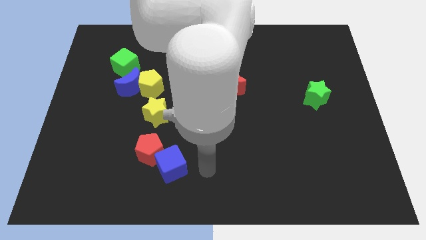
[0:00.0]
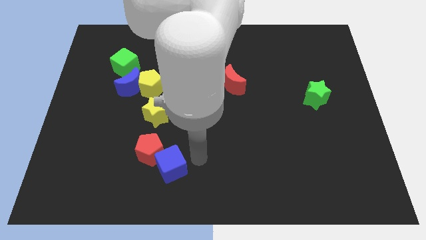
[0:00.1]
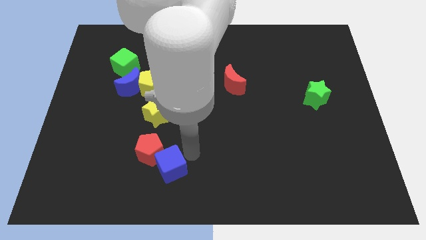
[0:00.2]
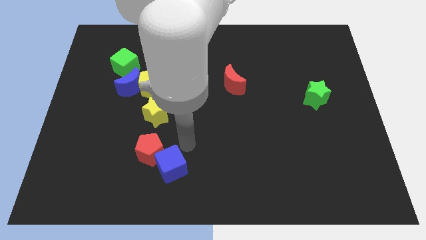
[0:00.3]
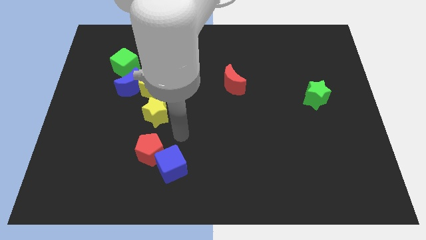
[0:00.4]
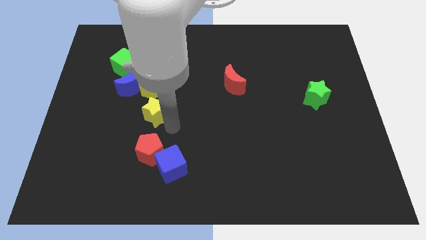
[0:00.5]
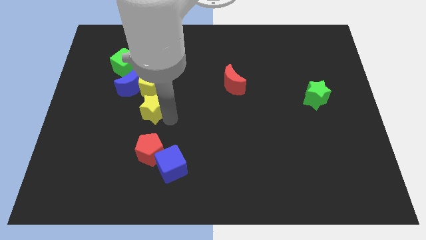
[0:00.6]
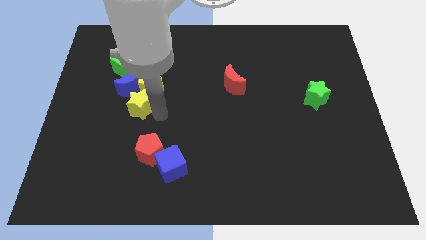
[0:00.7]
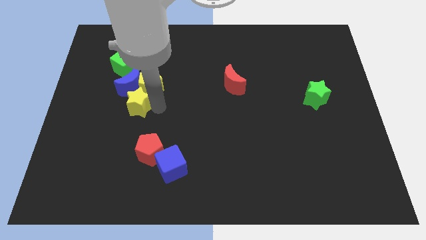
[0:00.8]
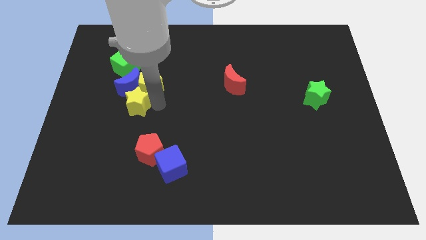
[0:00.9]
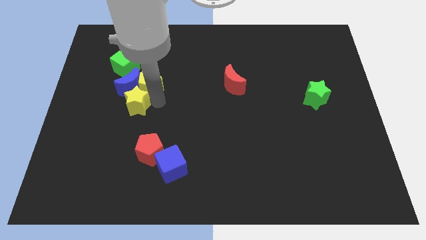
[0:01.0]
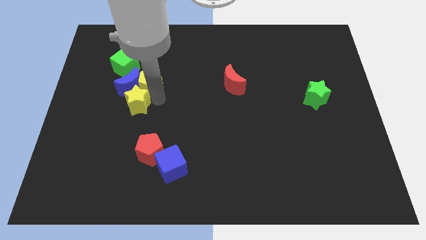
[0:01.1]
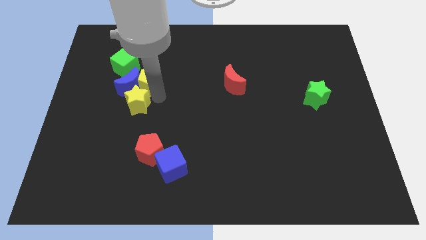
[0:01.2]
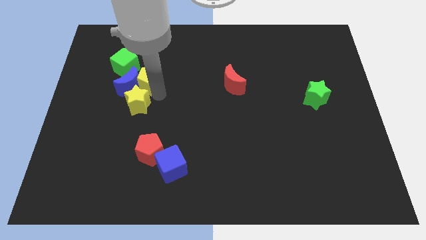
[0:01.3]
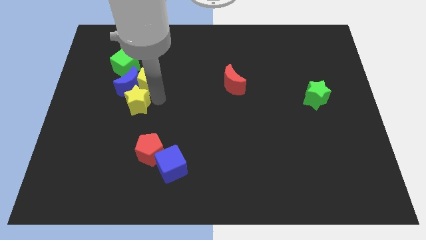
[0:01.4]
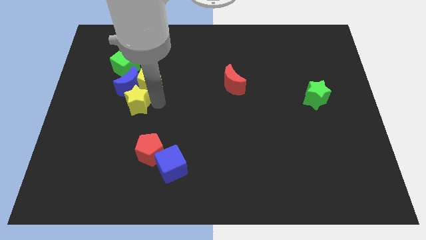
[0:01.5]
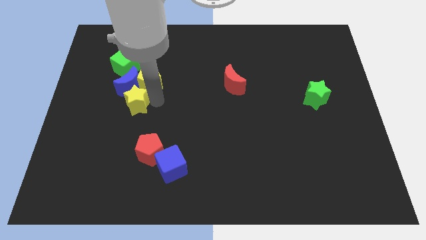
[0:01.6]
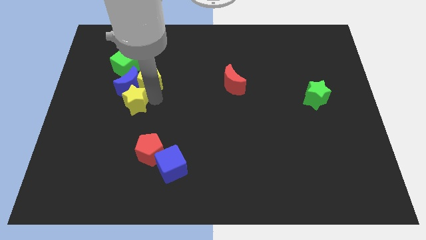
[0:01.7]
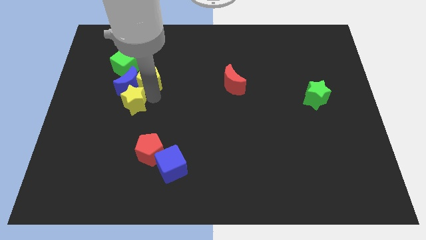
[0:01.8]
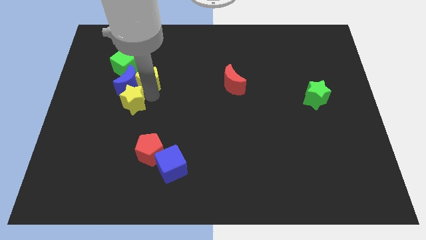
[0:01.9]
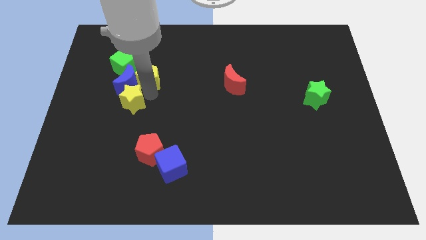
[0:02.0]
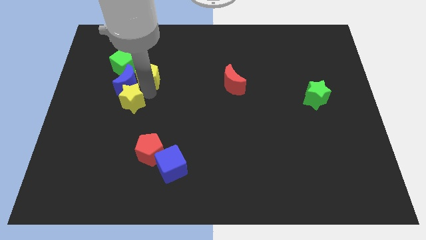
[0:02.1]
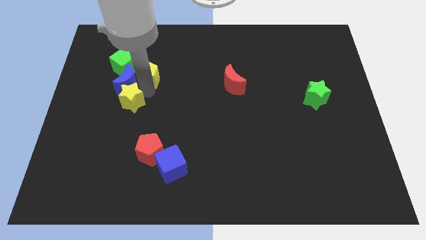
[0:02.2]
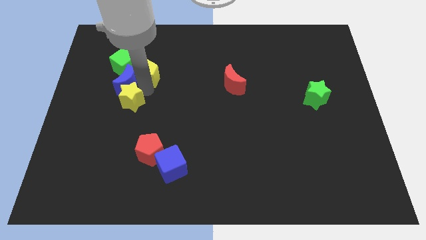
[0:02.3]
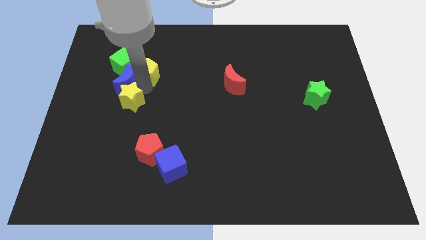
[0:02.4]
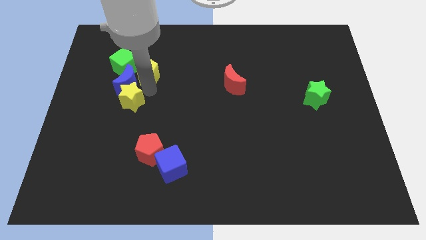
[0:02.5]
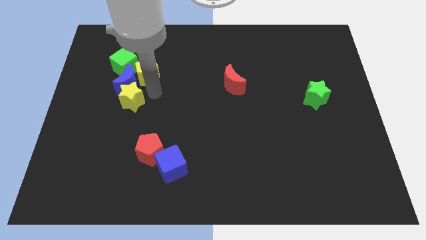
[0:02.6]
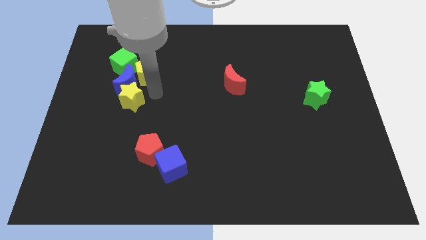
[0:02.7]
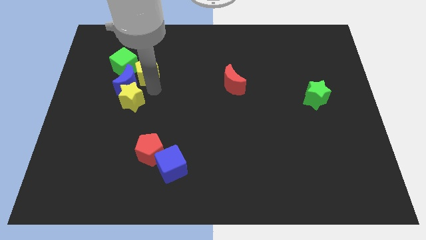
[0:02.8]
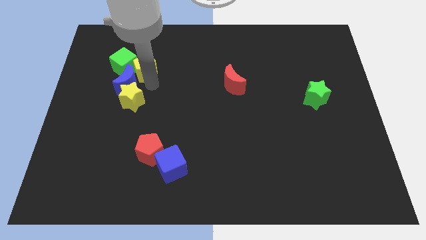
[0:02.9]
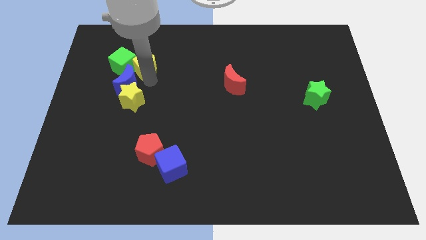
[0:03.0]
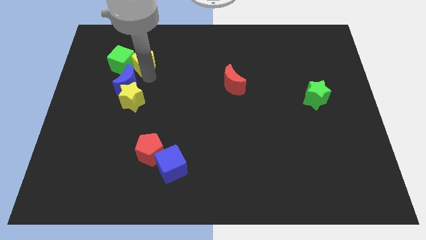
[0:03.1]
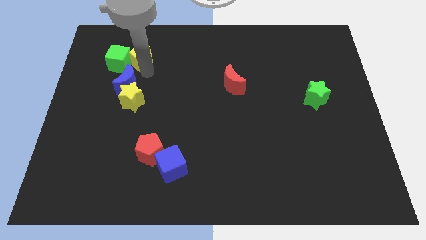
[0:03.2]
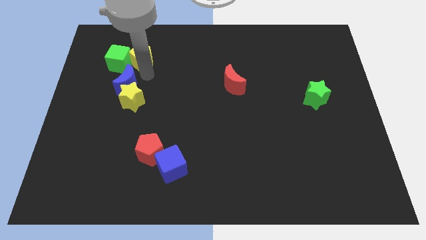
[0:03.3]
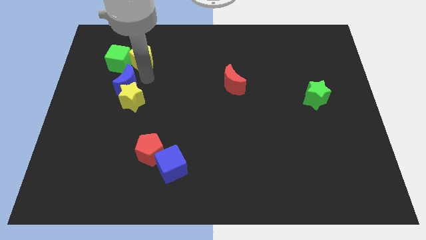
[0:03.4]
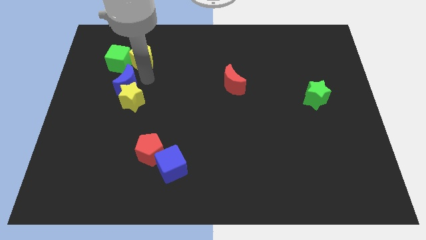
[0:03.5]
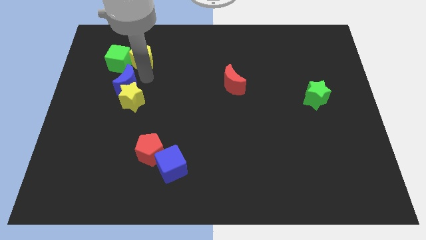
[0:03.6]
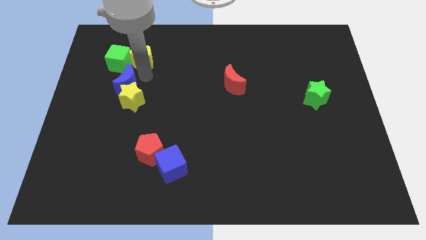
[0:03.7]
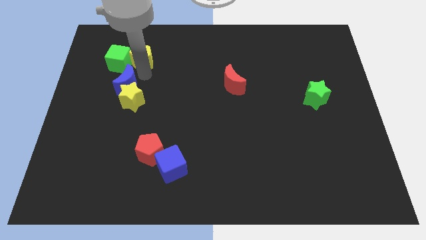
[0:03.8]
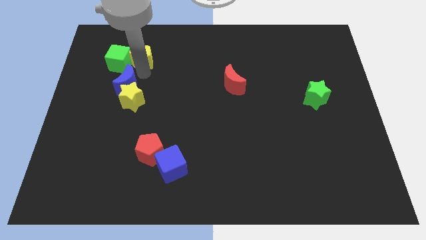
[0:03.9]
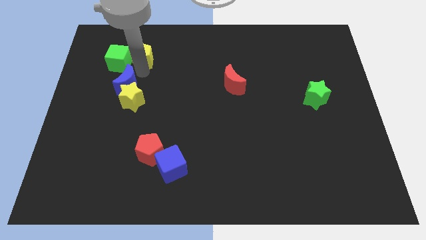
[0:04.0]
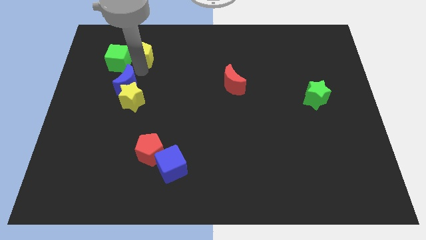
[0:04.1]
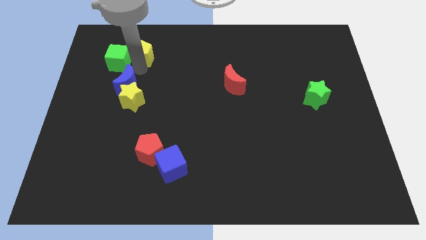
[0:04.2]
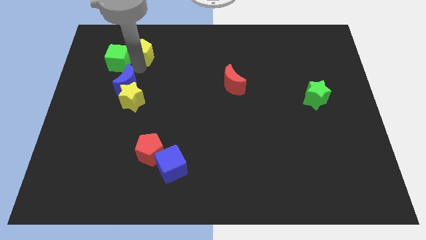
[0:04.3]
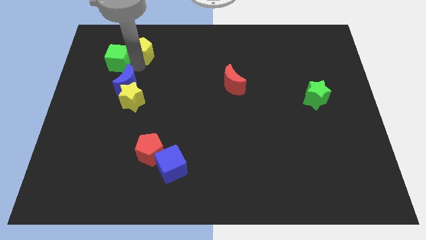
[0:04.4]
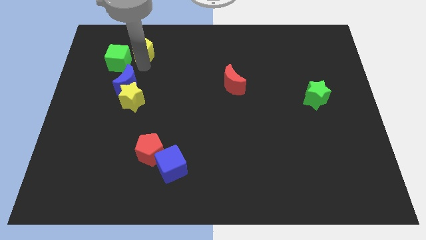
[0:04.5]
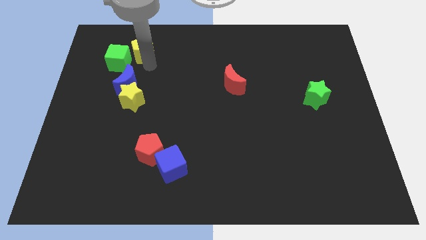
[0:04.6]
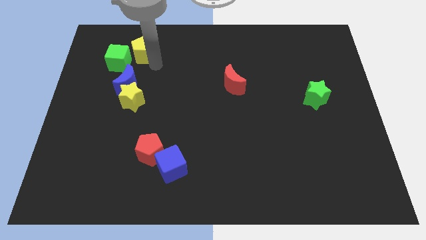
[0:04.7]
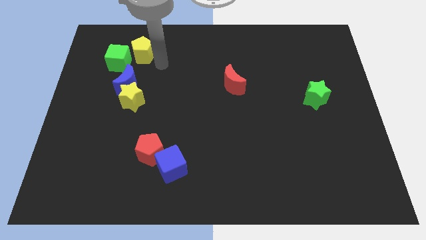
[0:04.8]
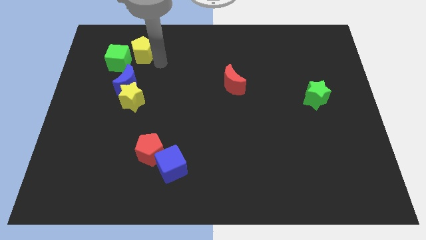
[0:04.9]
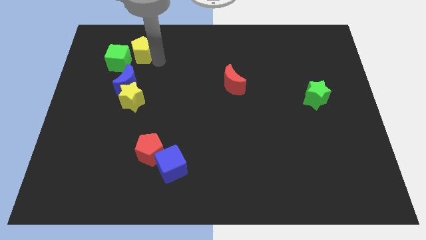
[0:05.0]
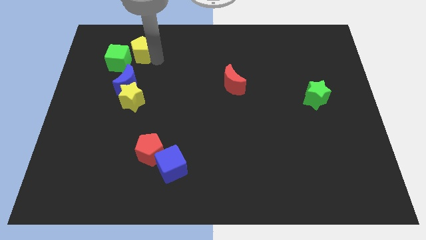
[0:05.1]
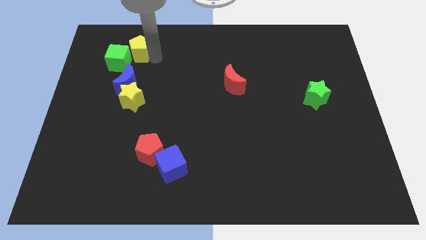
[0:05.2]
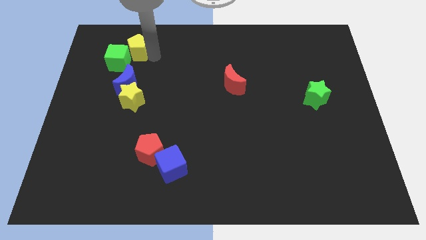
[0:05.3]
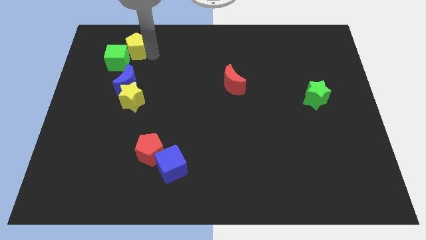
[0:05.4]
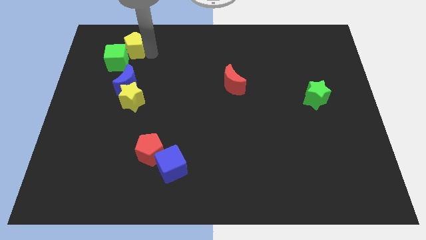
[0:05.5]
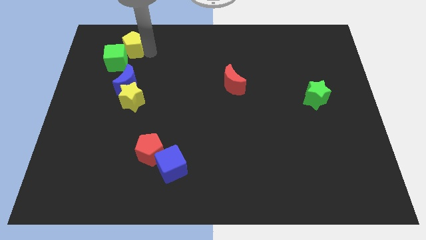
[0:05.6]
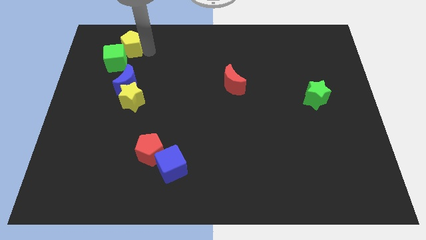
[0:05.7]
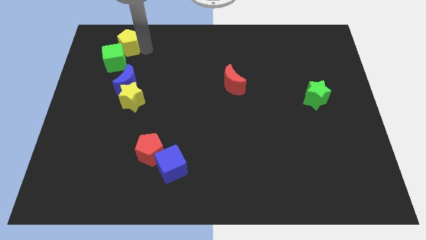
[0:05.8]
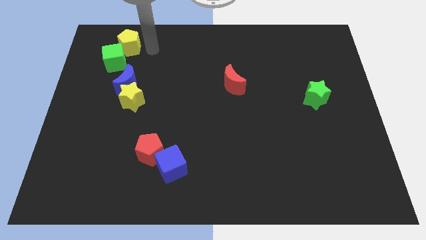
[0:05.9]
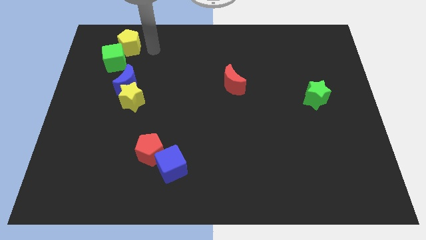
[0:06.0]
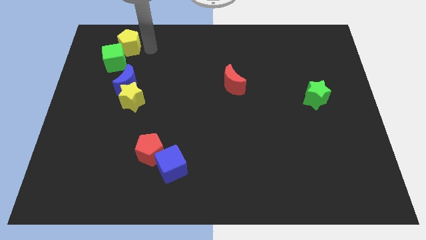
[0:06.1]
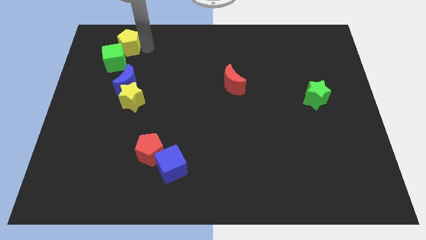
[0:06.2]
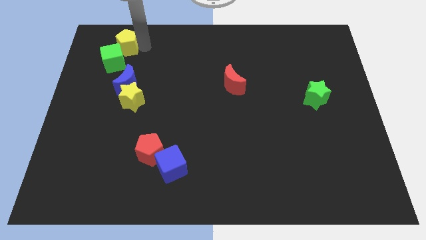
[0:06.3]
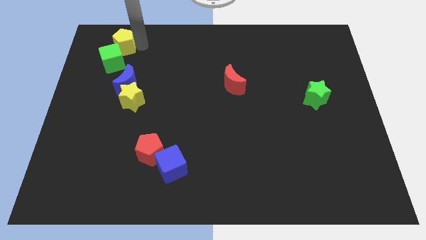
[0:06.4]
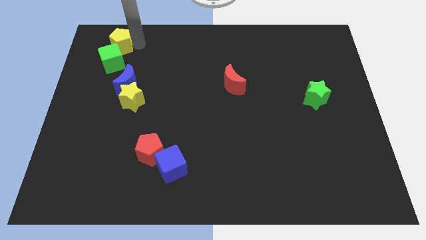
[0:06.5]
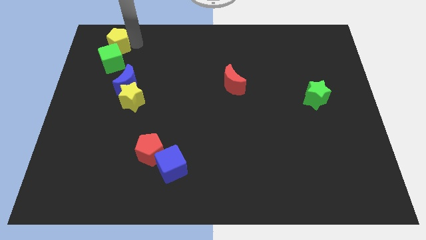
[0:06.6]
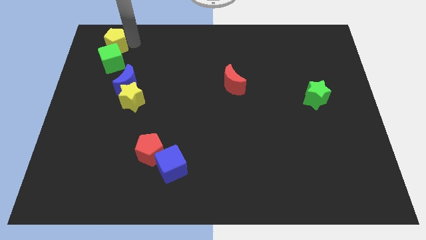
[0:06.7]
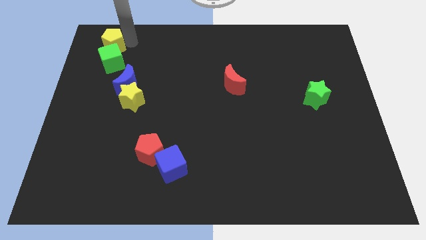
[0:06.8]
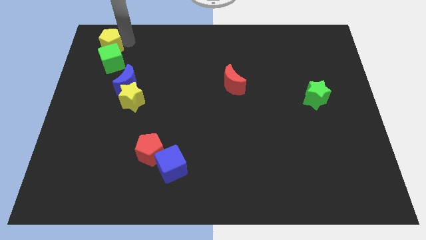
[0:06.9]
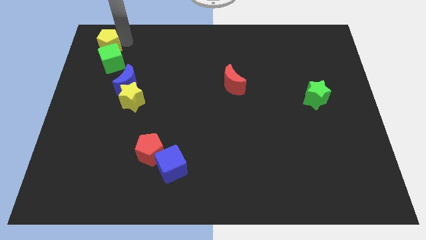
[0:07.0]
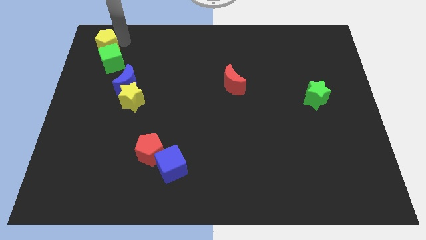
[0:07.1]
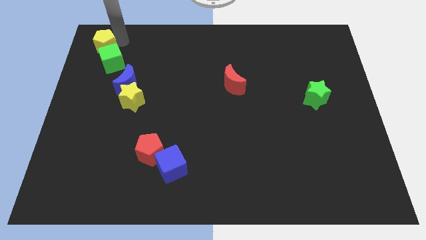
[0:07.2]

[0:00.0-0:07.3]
put the yellow pentagon to the top left

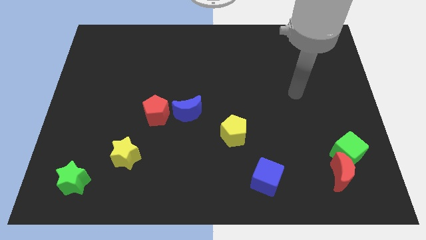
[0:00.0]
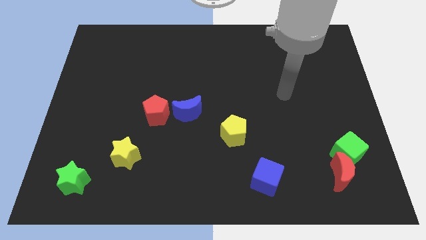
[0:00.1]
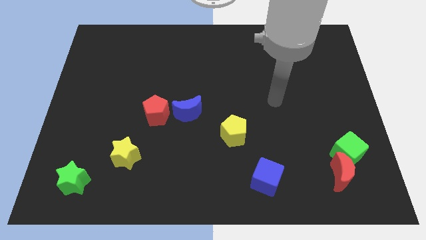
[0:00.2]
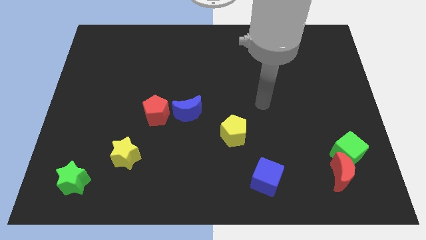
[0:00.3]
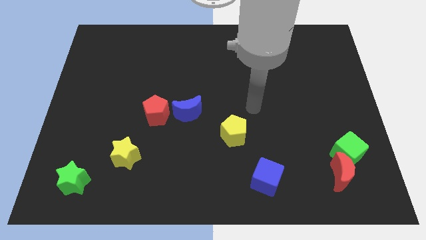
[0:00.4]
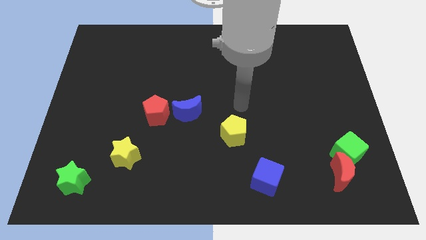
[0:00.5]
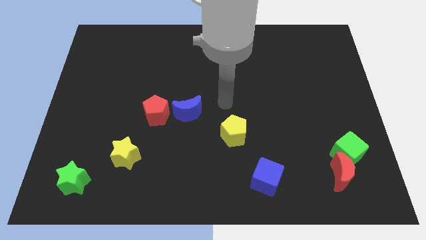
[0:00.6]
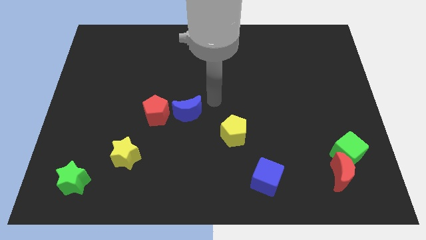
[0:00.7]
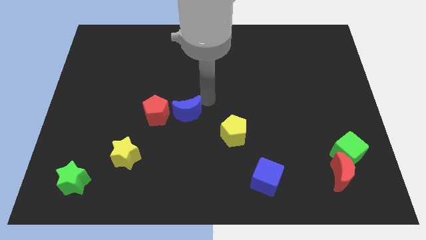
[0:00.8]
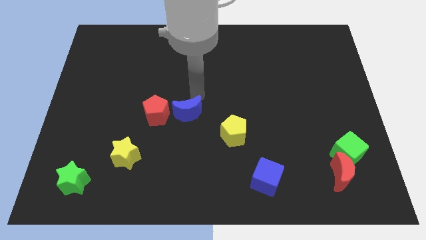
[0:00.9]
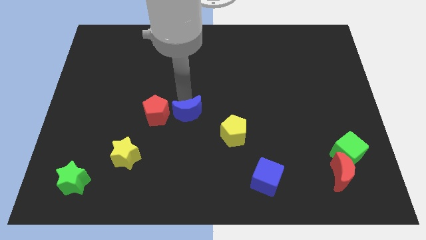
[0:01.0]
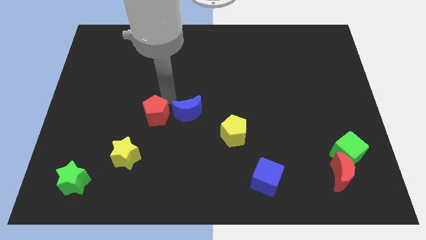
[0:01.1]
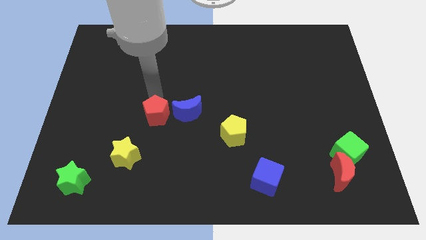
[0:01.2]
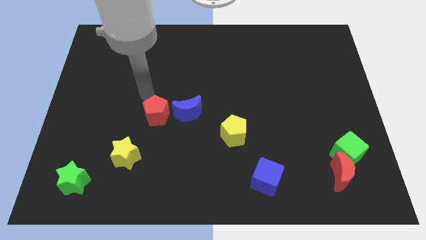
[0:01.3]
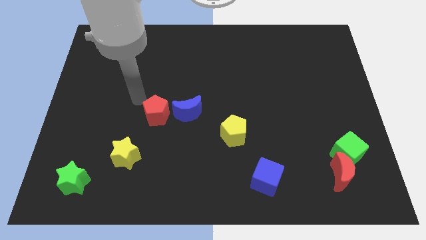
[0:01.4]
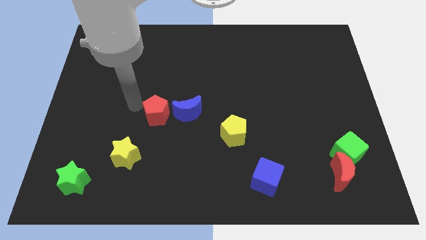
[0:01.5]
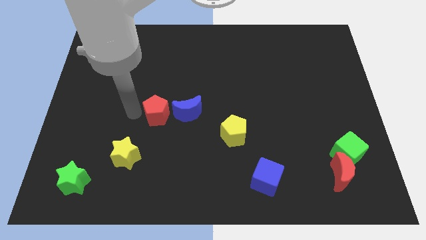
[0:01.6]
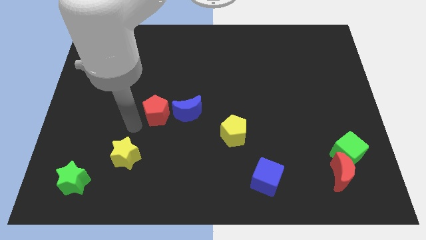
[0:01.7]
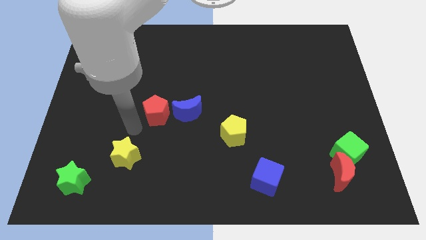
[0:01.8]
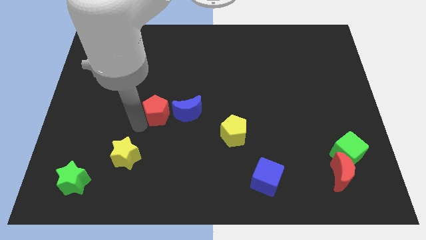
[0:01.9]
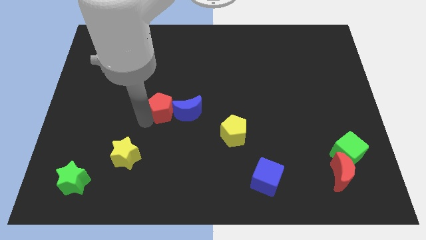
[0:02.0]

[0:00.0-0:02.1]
slide the red pentagon to the middle of the board
